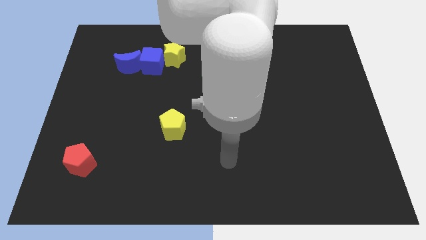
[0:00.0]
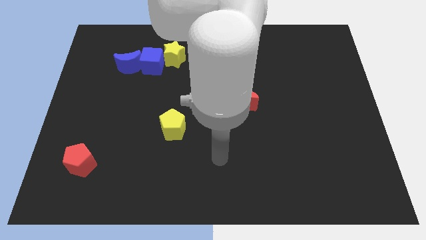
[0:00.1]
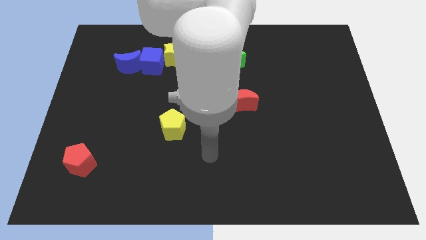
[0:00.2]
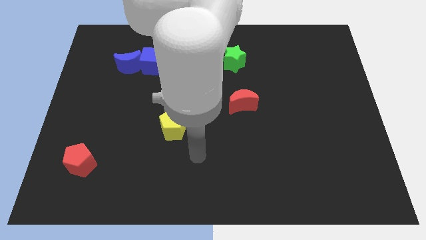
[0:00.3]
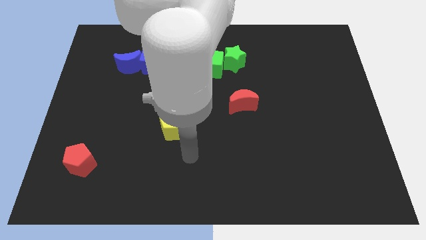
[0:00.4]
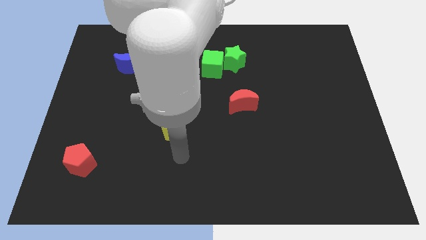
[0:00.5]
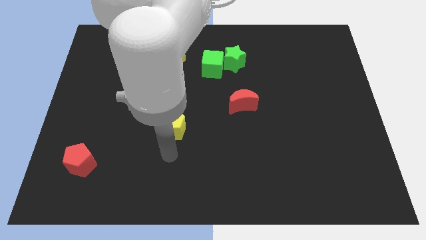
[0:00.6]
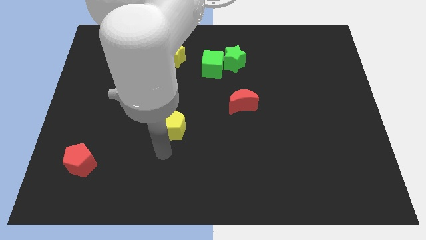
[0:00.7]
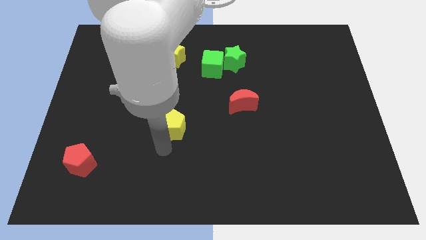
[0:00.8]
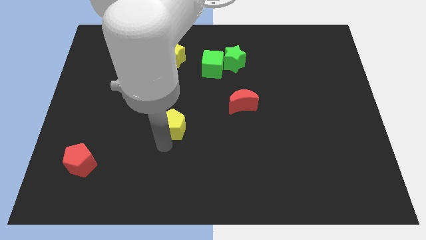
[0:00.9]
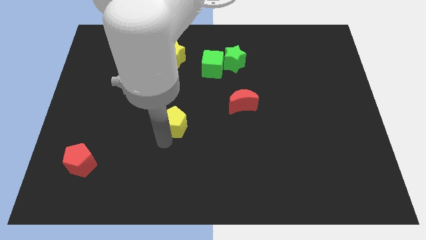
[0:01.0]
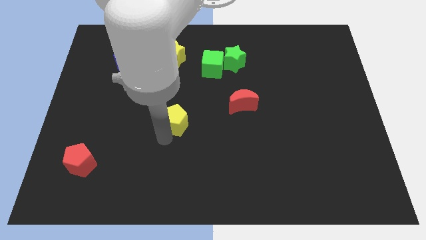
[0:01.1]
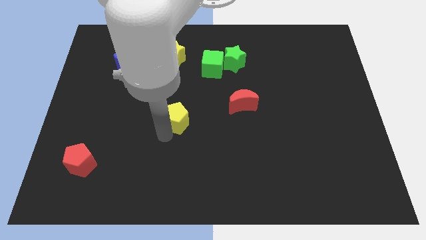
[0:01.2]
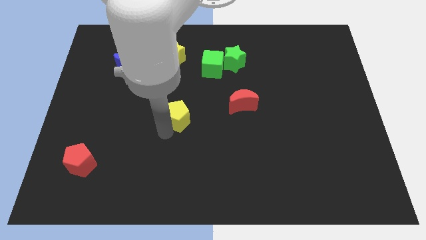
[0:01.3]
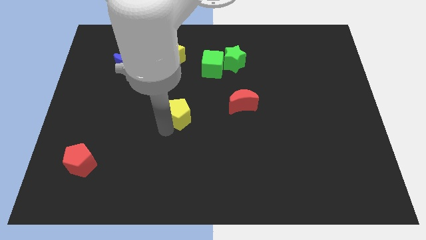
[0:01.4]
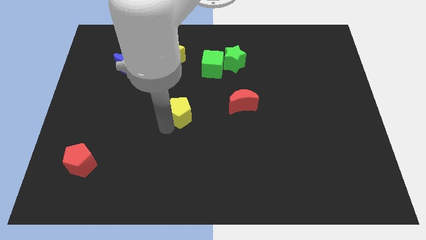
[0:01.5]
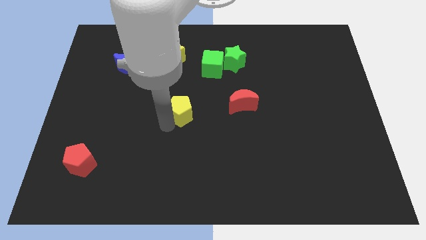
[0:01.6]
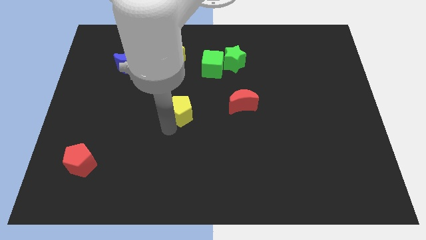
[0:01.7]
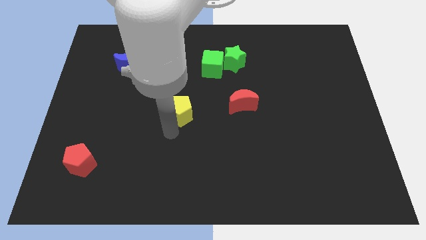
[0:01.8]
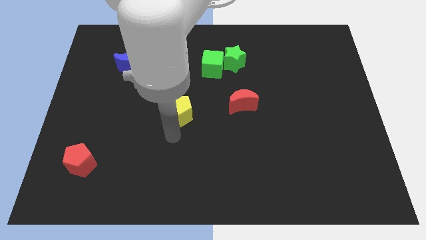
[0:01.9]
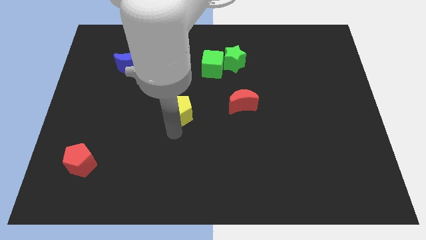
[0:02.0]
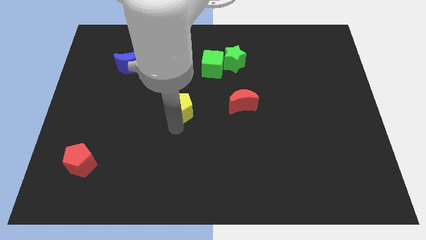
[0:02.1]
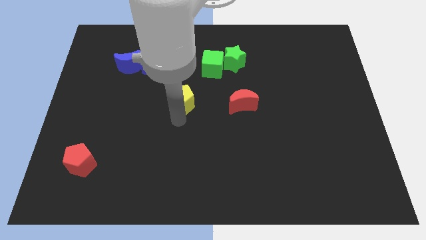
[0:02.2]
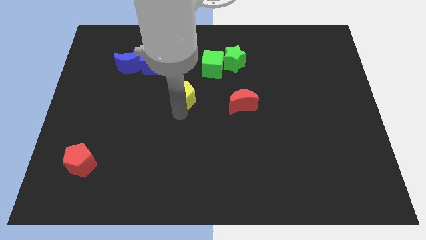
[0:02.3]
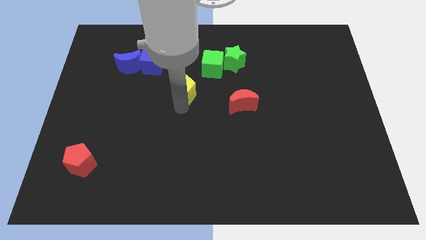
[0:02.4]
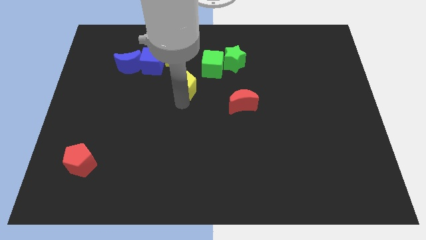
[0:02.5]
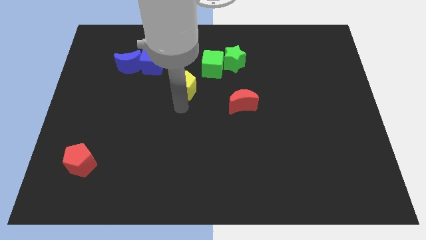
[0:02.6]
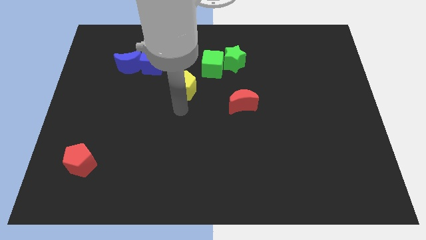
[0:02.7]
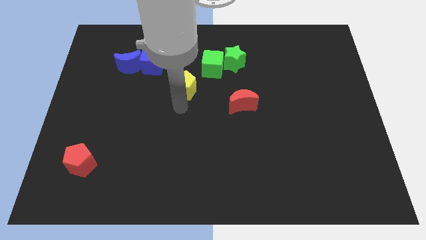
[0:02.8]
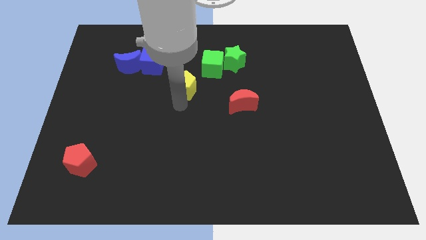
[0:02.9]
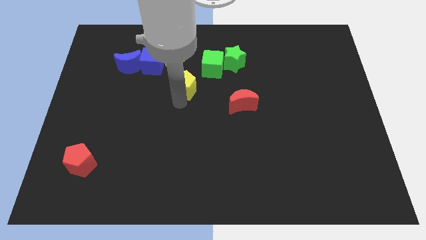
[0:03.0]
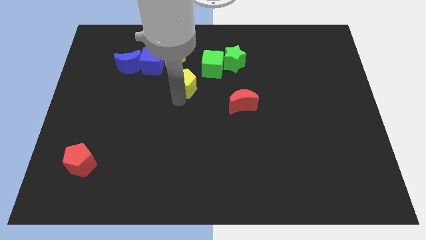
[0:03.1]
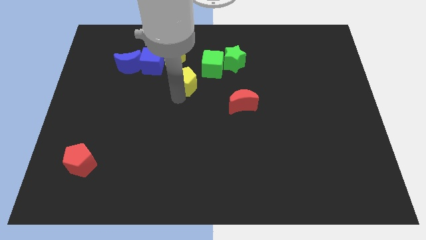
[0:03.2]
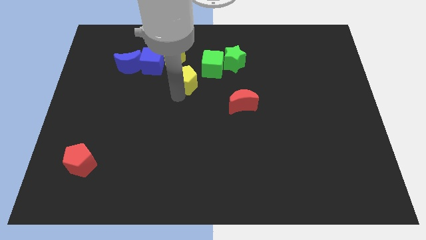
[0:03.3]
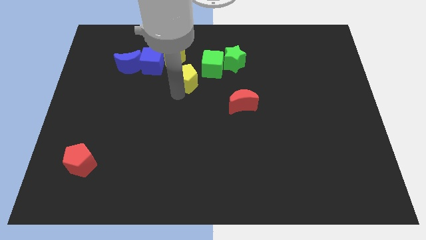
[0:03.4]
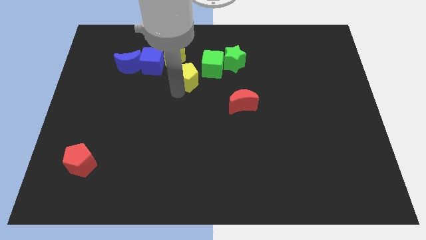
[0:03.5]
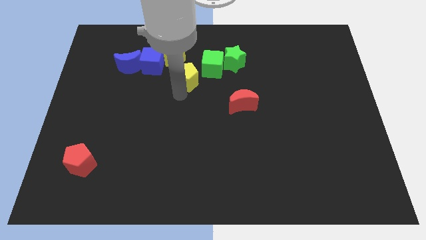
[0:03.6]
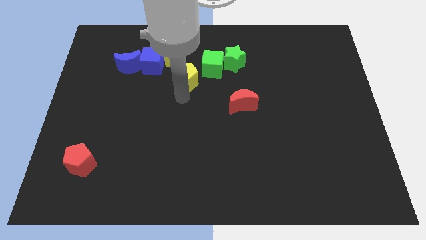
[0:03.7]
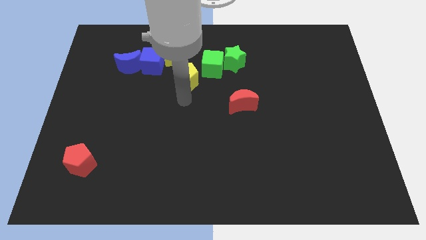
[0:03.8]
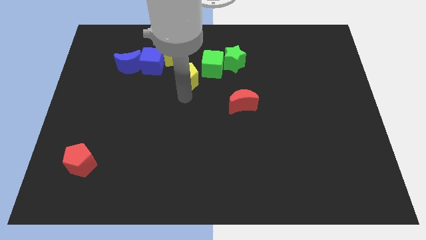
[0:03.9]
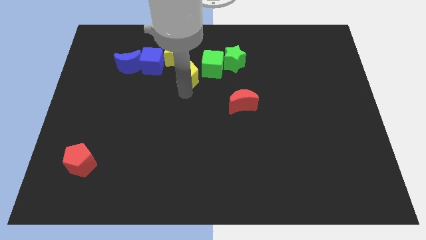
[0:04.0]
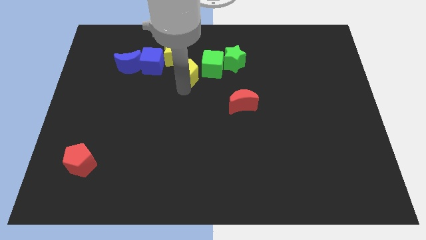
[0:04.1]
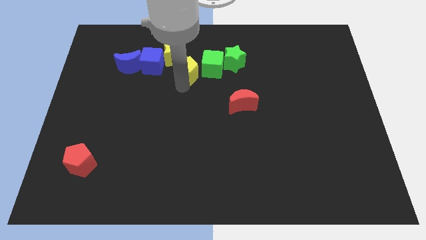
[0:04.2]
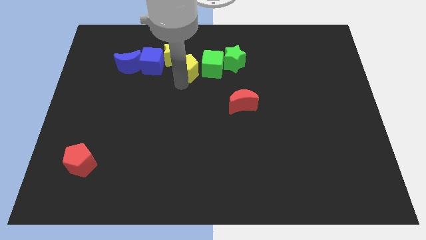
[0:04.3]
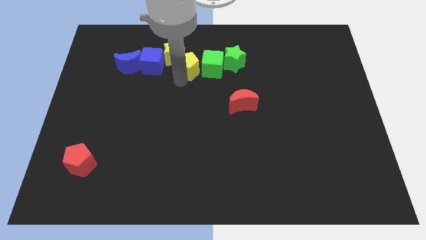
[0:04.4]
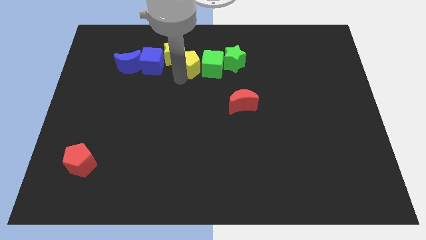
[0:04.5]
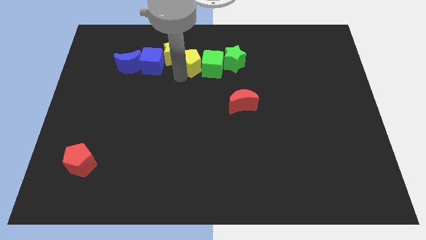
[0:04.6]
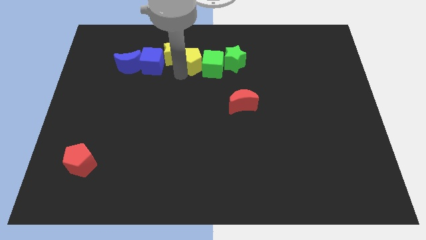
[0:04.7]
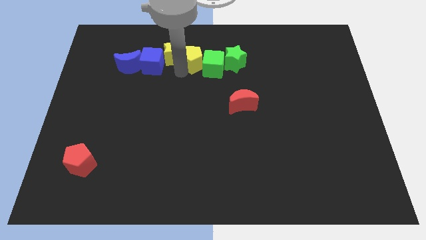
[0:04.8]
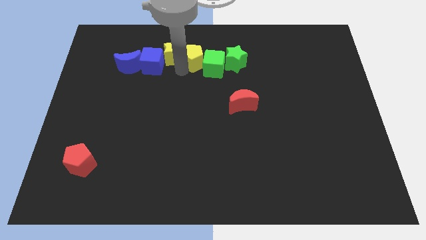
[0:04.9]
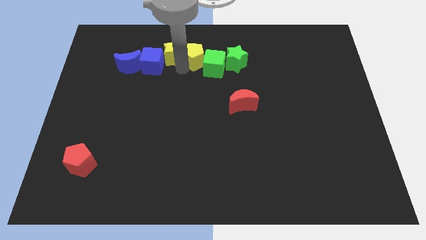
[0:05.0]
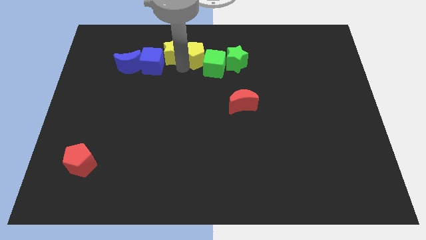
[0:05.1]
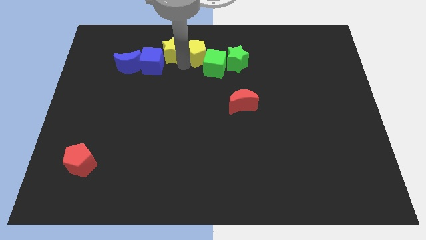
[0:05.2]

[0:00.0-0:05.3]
slide the yellow pentagon to the towards your base
